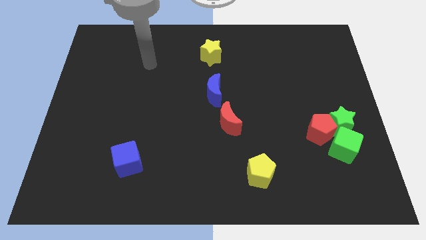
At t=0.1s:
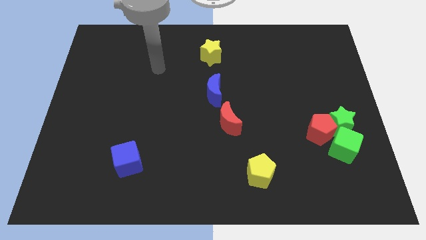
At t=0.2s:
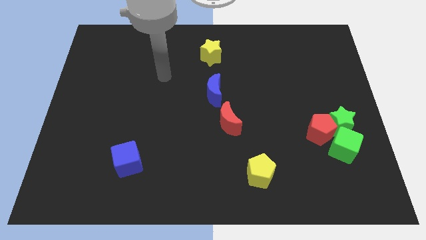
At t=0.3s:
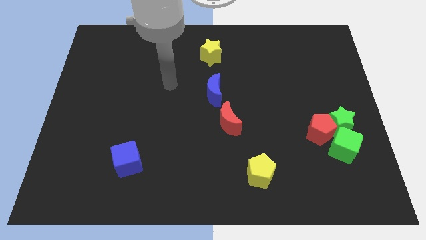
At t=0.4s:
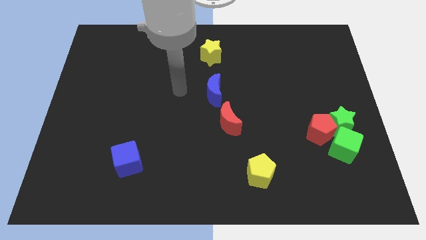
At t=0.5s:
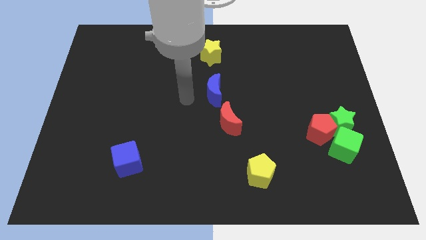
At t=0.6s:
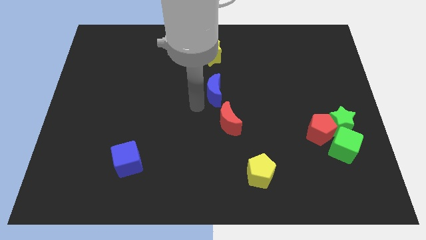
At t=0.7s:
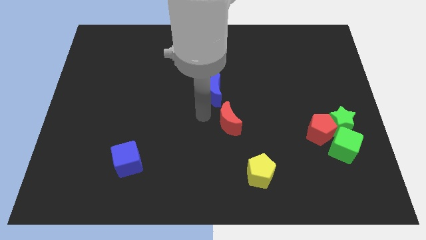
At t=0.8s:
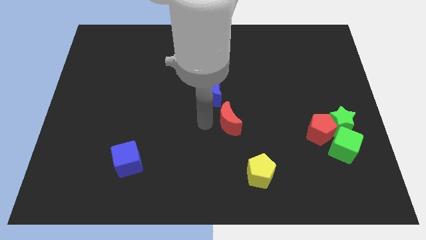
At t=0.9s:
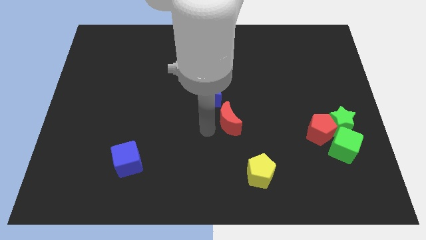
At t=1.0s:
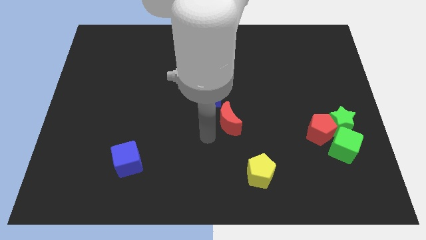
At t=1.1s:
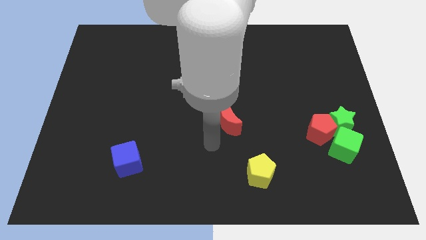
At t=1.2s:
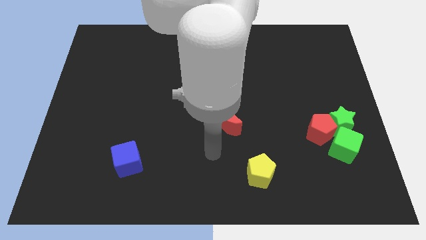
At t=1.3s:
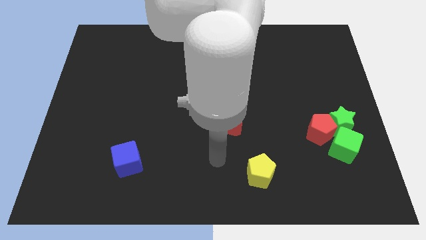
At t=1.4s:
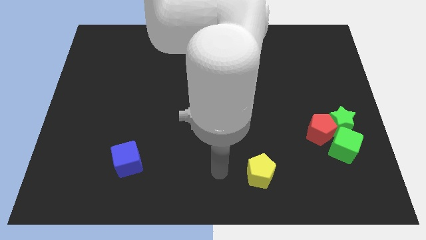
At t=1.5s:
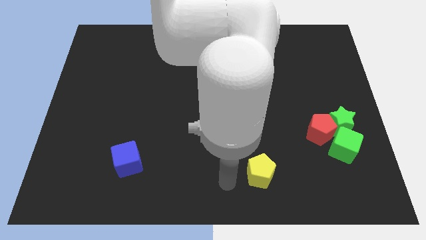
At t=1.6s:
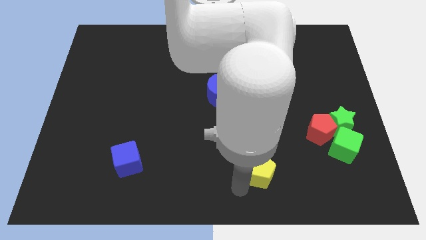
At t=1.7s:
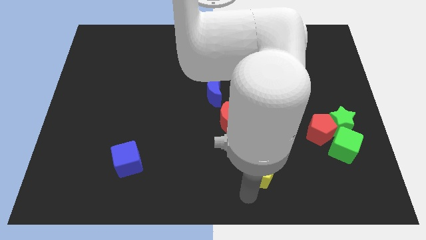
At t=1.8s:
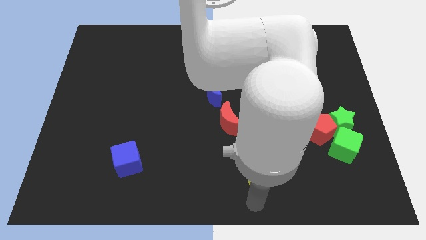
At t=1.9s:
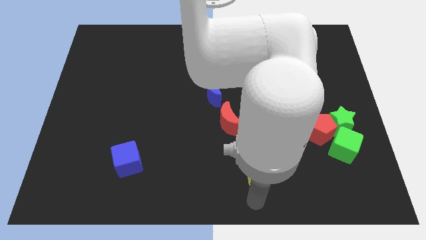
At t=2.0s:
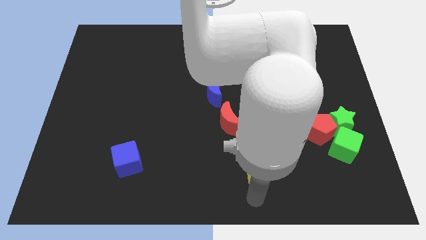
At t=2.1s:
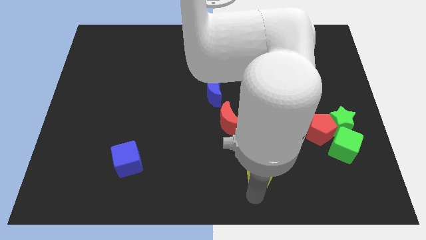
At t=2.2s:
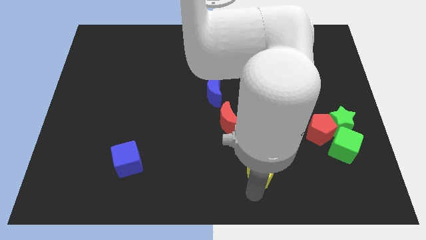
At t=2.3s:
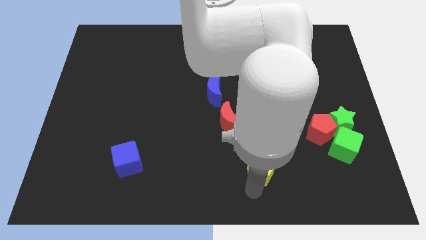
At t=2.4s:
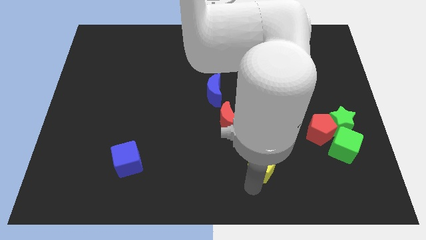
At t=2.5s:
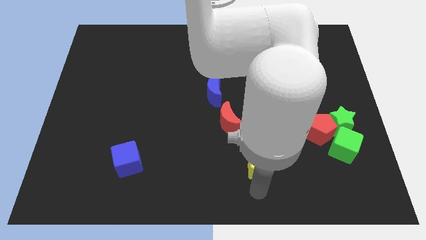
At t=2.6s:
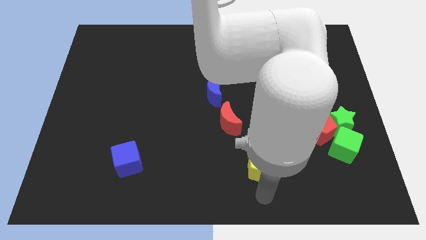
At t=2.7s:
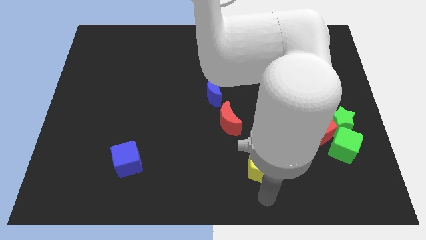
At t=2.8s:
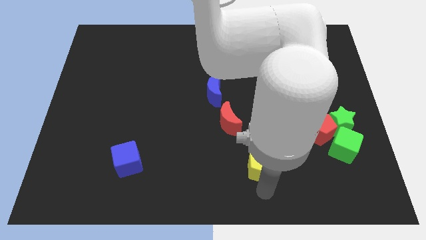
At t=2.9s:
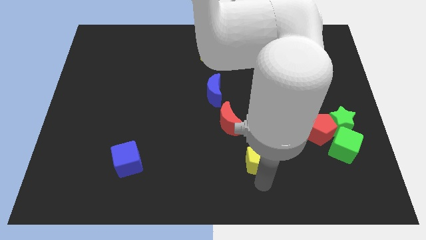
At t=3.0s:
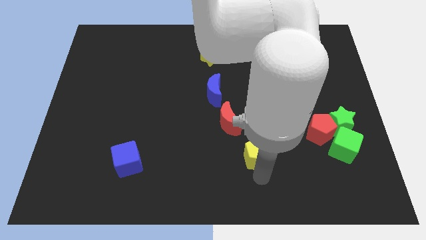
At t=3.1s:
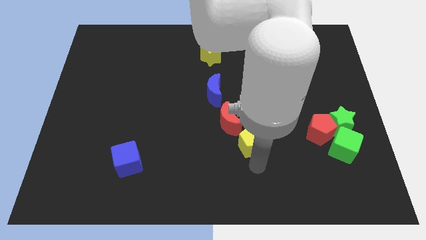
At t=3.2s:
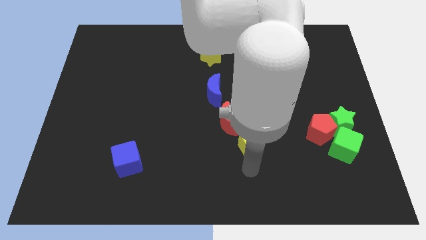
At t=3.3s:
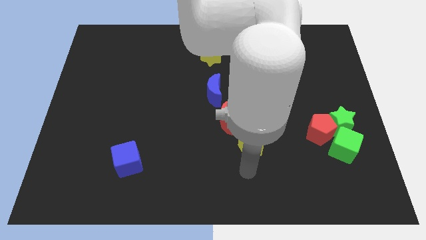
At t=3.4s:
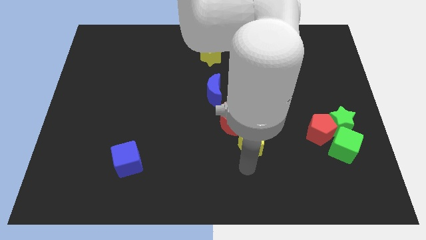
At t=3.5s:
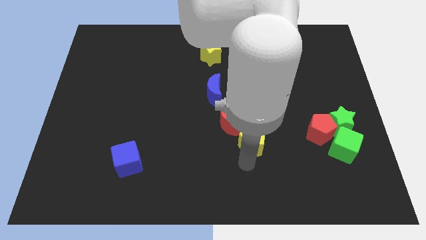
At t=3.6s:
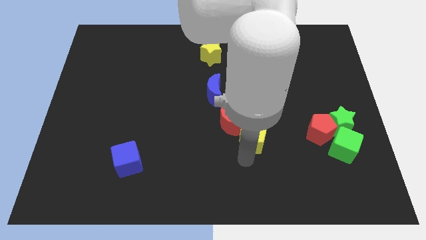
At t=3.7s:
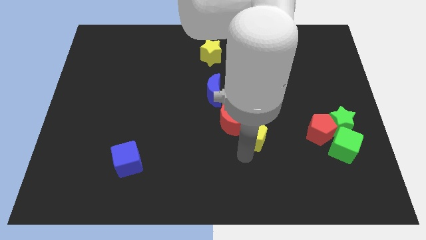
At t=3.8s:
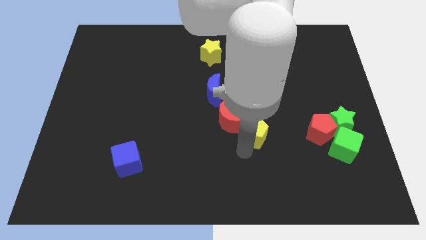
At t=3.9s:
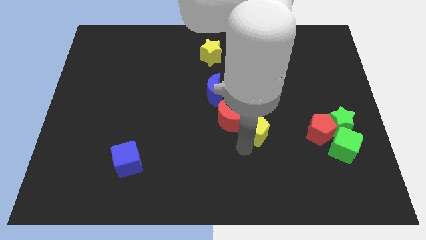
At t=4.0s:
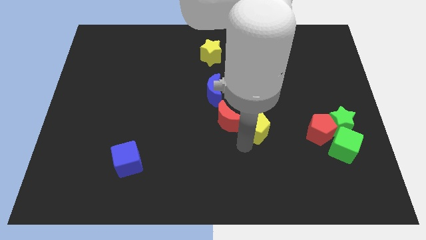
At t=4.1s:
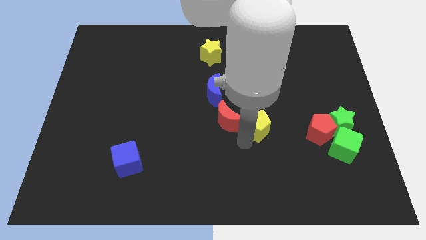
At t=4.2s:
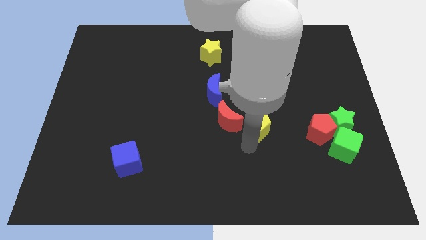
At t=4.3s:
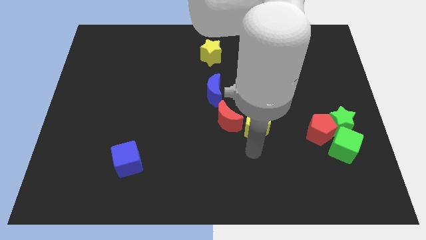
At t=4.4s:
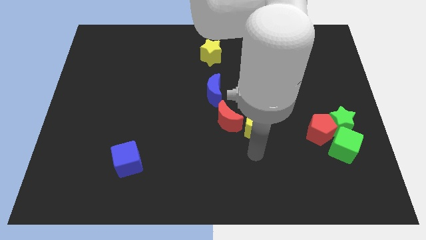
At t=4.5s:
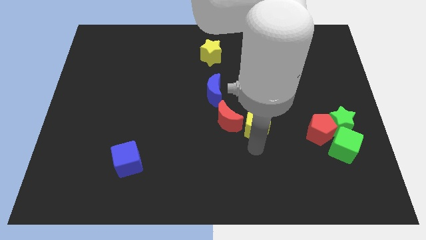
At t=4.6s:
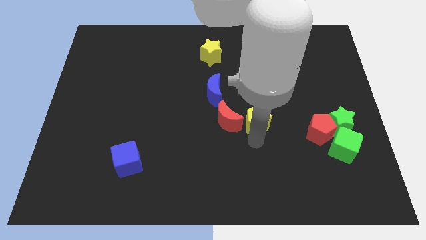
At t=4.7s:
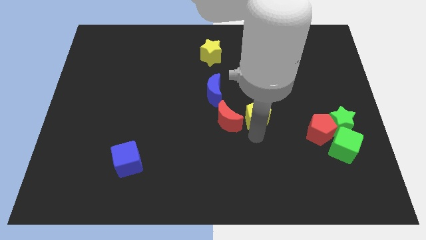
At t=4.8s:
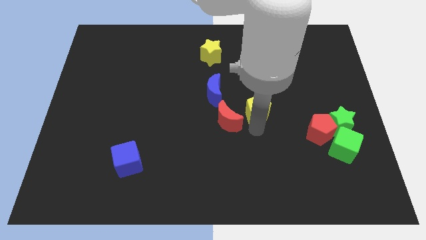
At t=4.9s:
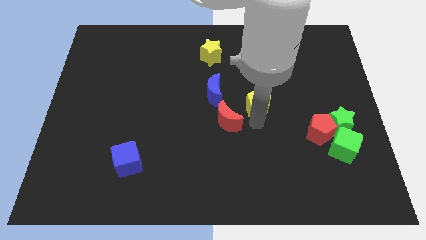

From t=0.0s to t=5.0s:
push the yellow pentagon just right of the blue moon

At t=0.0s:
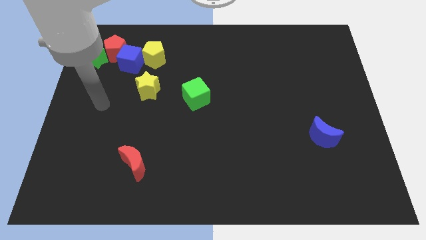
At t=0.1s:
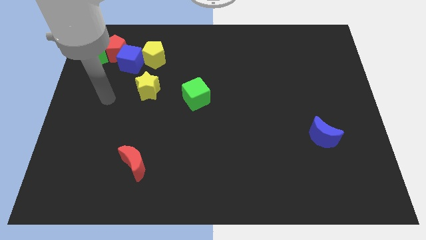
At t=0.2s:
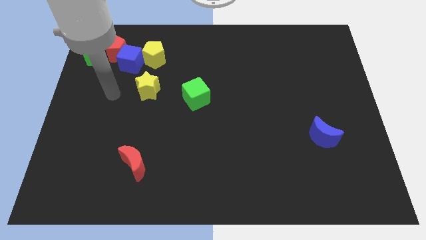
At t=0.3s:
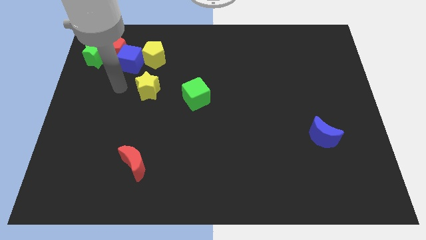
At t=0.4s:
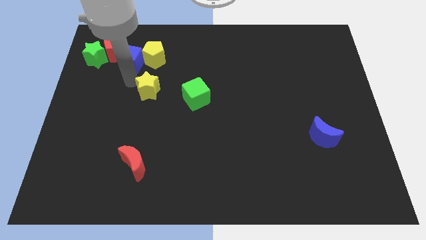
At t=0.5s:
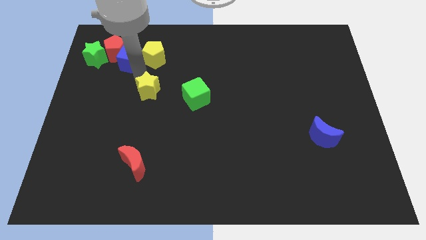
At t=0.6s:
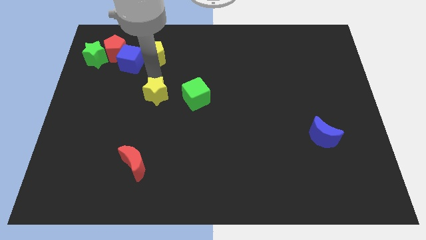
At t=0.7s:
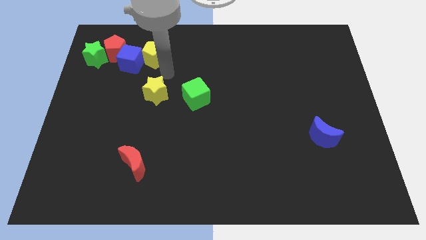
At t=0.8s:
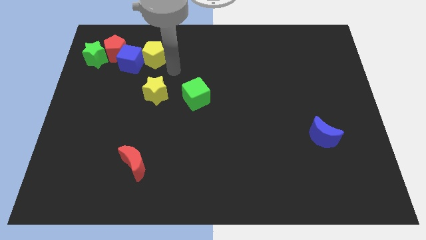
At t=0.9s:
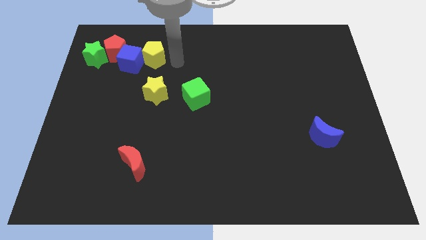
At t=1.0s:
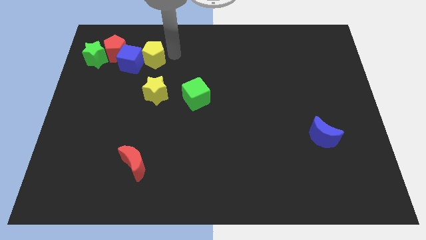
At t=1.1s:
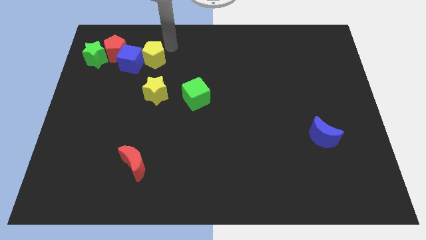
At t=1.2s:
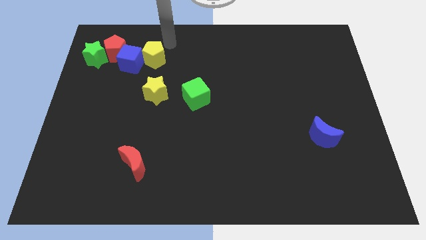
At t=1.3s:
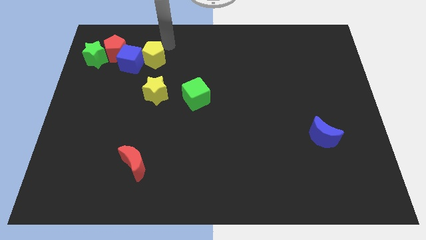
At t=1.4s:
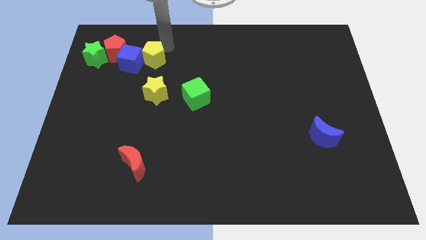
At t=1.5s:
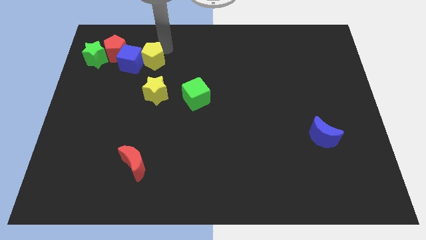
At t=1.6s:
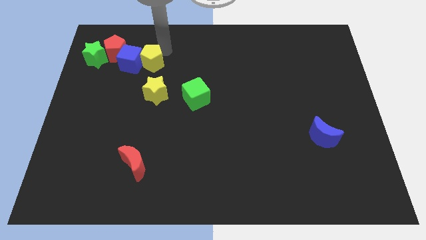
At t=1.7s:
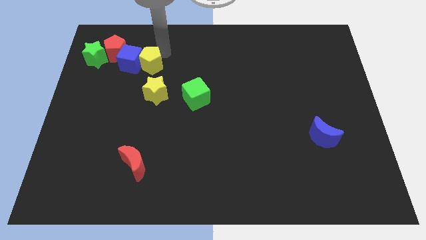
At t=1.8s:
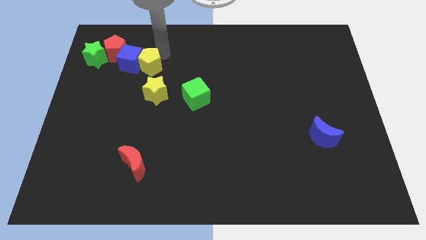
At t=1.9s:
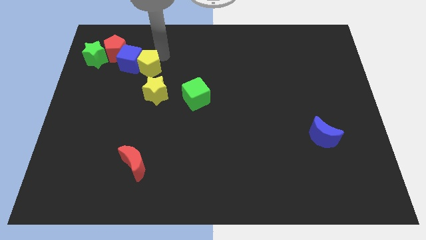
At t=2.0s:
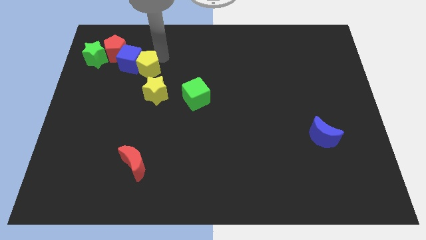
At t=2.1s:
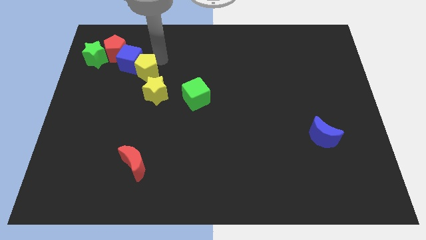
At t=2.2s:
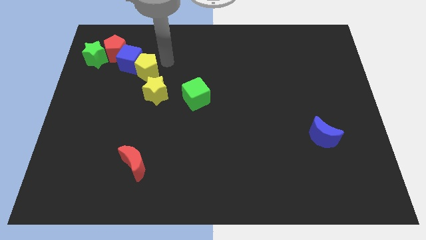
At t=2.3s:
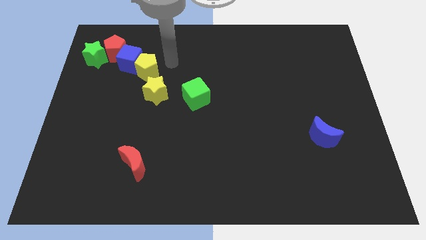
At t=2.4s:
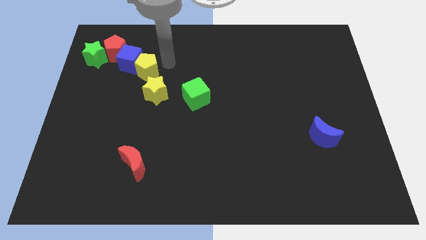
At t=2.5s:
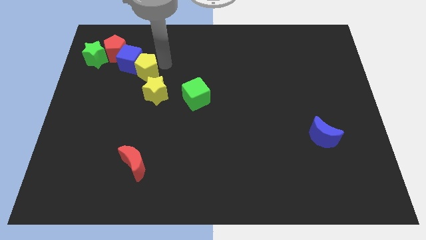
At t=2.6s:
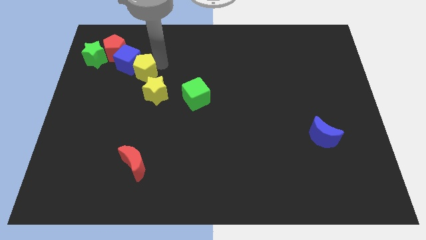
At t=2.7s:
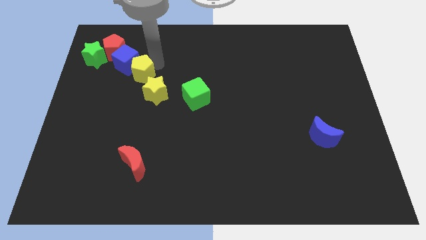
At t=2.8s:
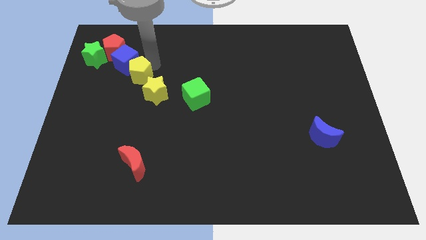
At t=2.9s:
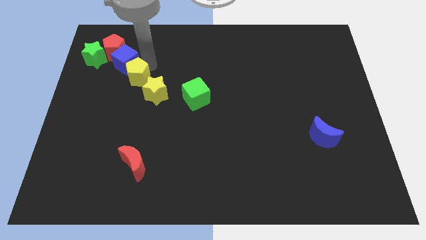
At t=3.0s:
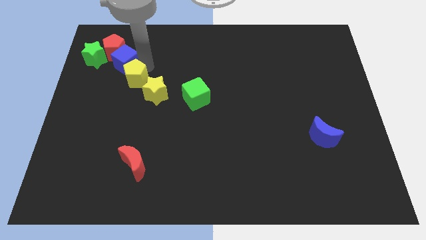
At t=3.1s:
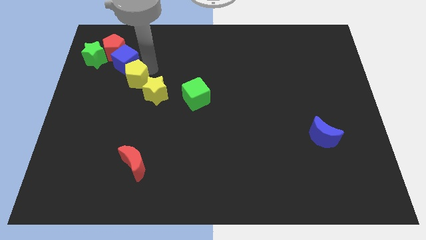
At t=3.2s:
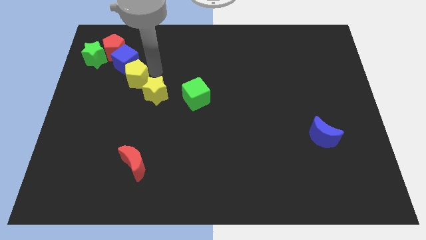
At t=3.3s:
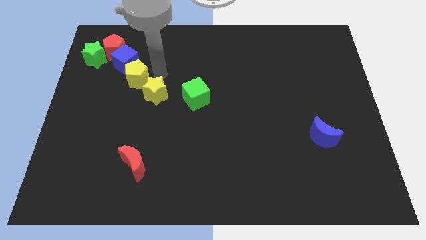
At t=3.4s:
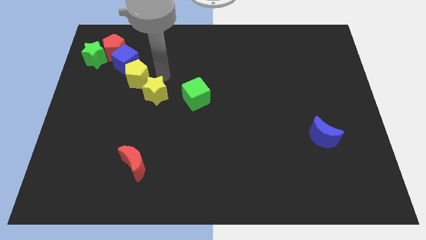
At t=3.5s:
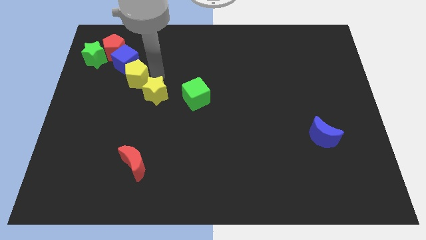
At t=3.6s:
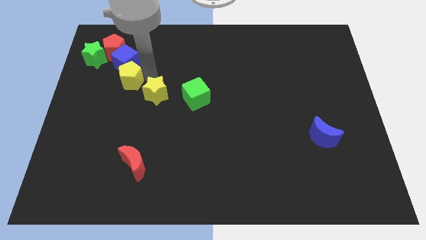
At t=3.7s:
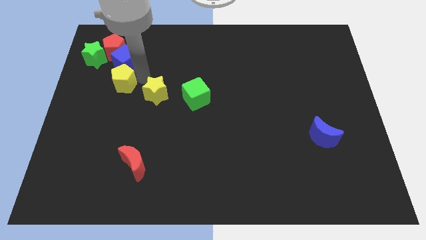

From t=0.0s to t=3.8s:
slide the yellow pentagon to the bottom of the red pentagon
